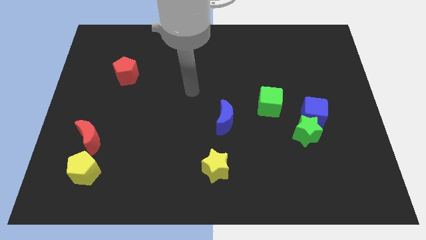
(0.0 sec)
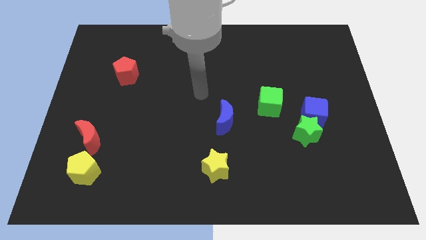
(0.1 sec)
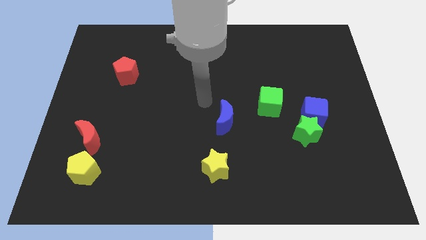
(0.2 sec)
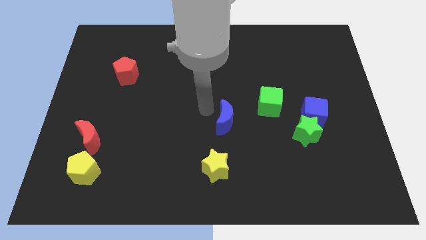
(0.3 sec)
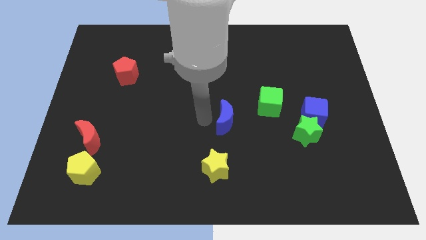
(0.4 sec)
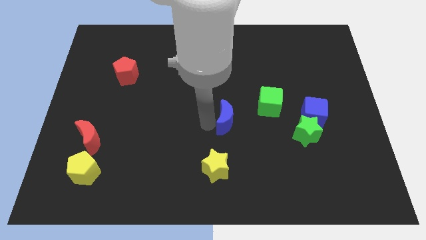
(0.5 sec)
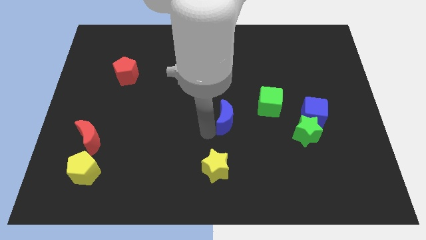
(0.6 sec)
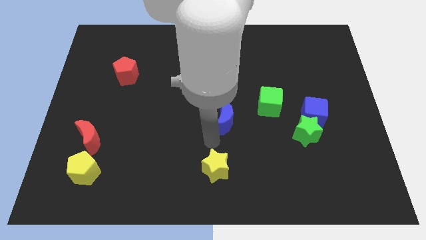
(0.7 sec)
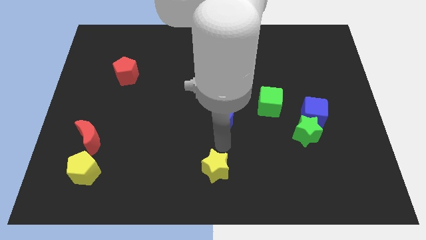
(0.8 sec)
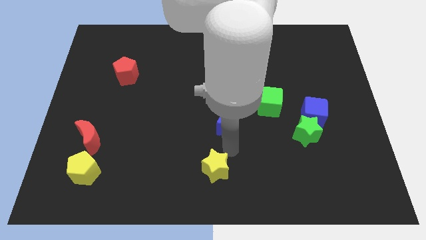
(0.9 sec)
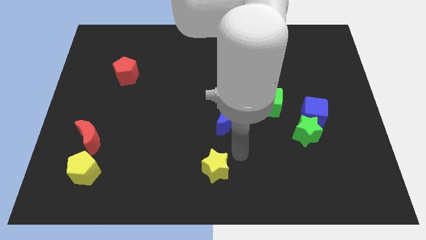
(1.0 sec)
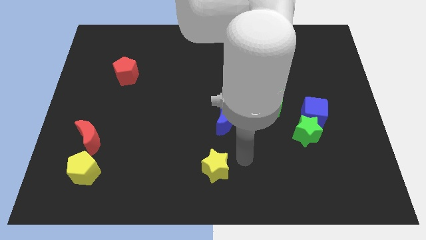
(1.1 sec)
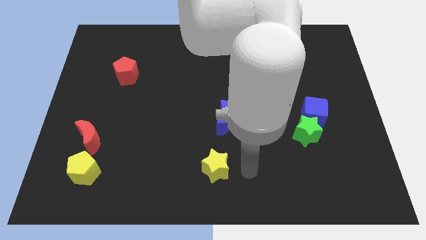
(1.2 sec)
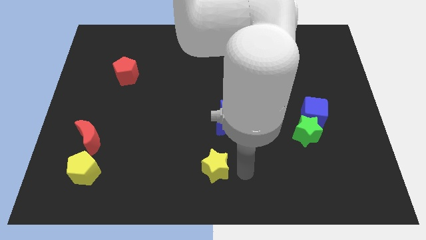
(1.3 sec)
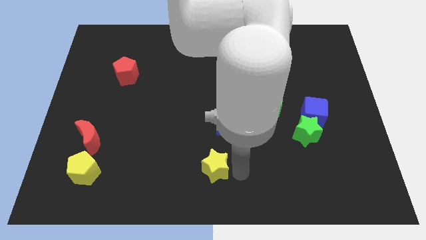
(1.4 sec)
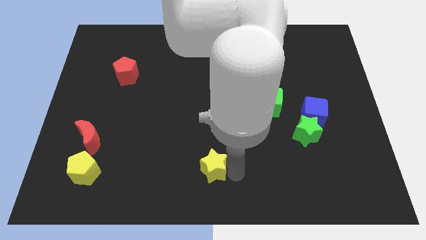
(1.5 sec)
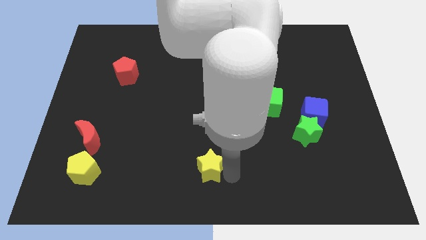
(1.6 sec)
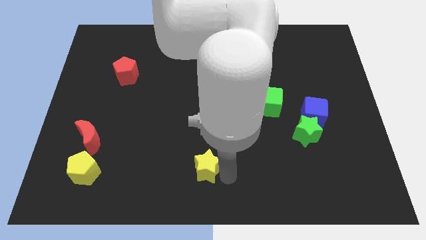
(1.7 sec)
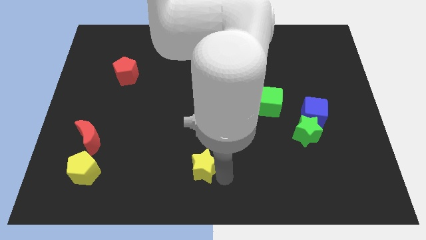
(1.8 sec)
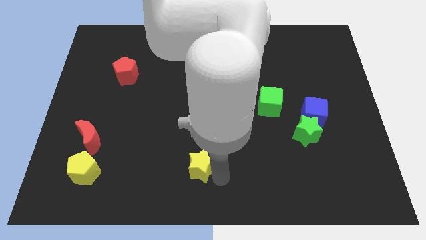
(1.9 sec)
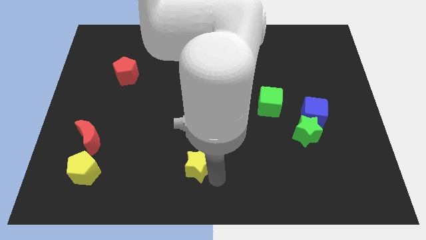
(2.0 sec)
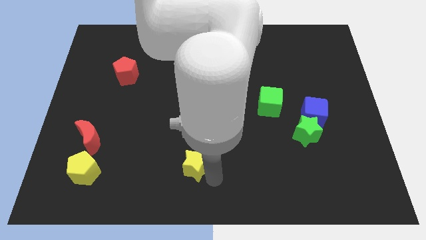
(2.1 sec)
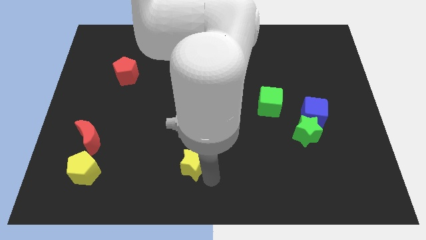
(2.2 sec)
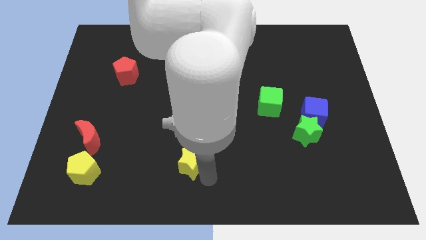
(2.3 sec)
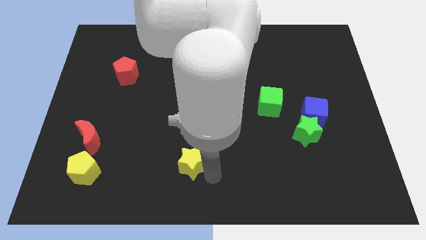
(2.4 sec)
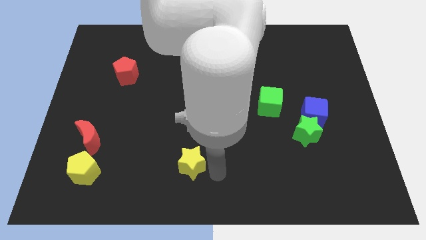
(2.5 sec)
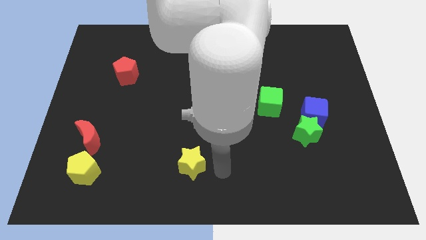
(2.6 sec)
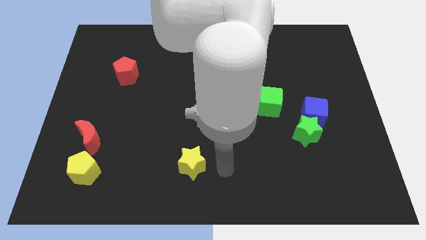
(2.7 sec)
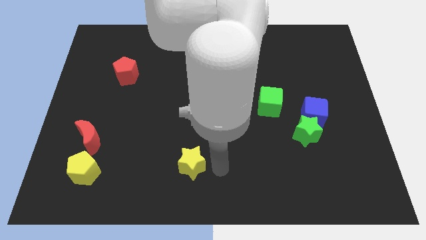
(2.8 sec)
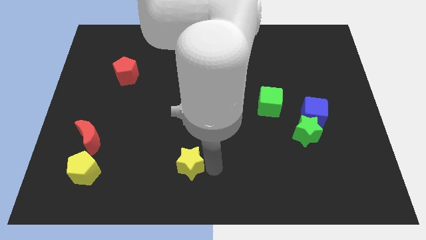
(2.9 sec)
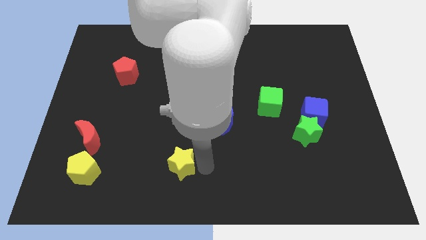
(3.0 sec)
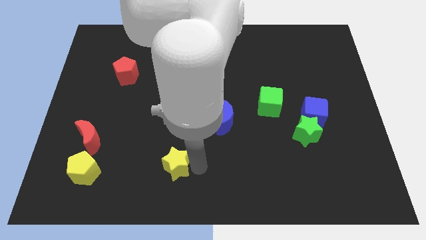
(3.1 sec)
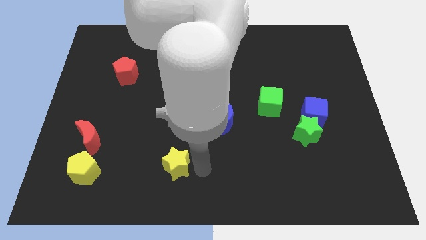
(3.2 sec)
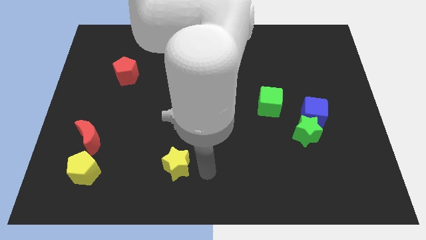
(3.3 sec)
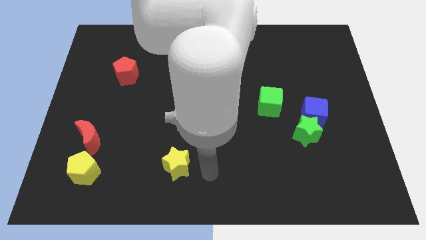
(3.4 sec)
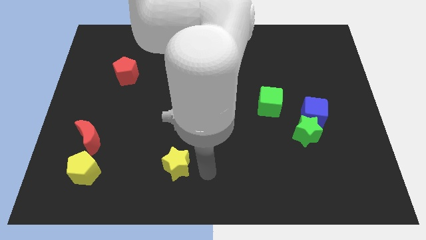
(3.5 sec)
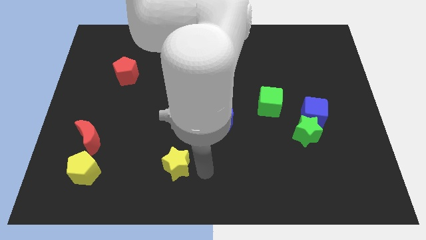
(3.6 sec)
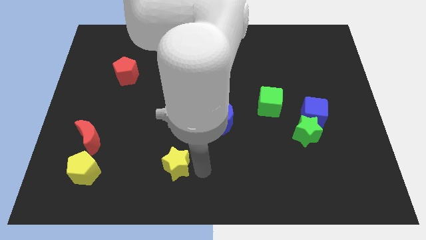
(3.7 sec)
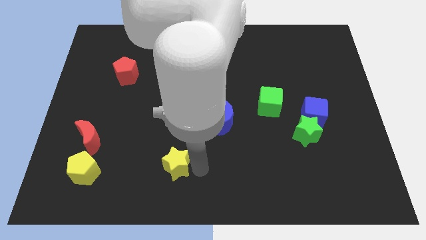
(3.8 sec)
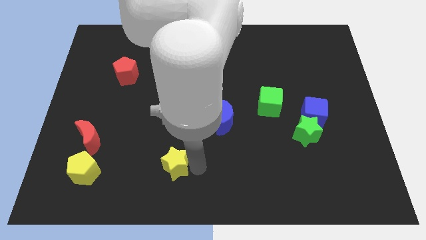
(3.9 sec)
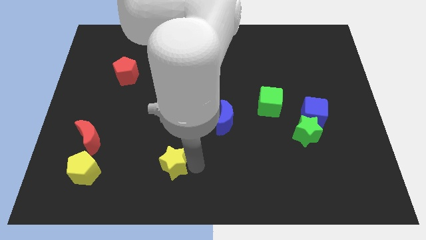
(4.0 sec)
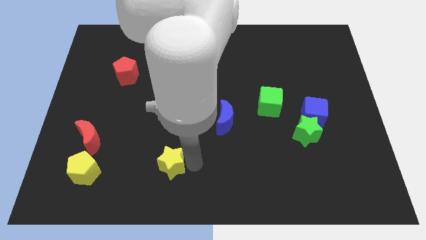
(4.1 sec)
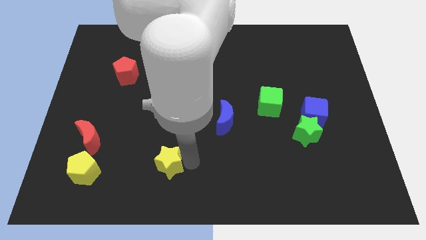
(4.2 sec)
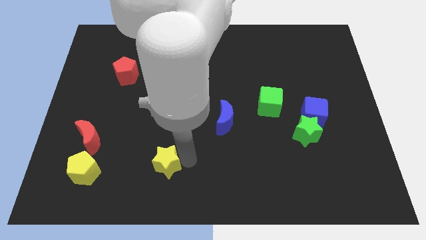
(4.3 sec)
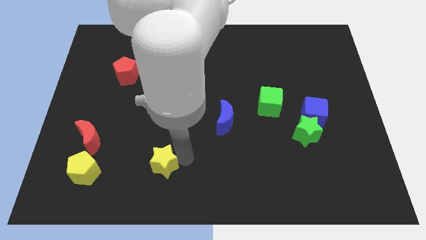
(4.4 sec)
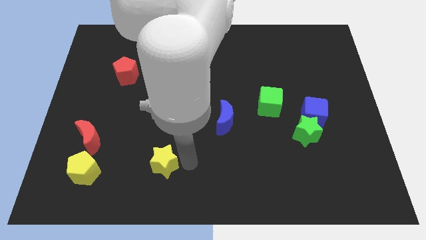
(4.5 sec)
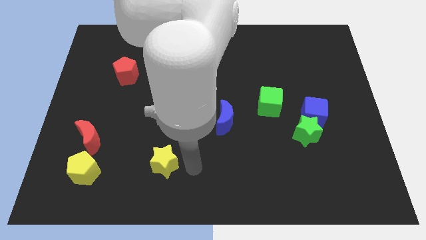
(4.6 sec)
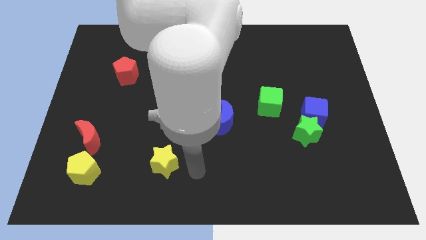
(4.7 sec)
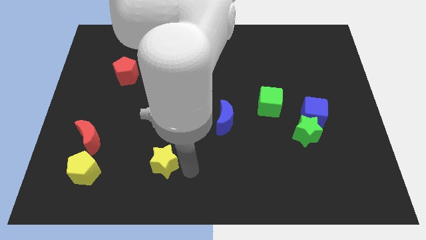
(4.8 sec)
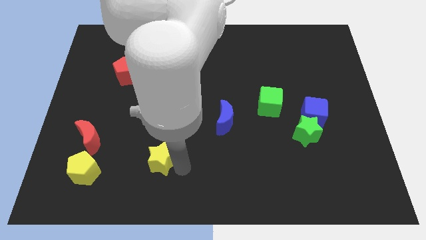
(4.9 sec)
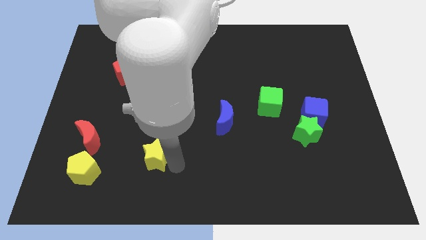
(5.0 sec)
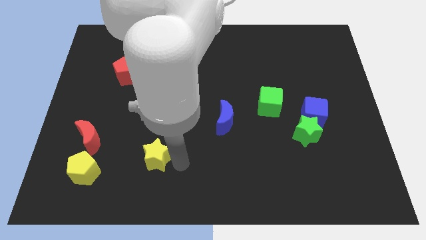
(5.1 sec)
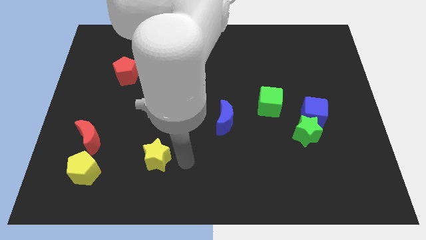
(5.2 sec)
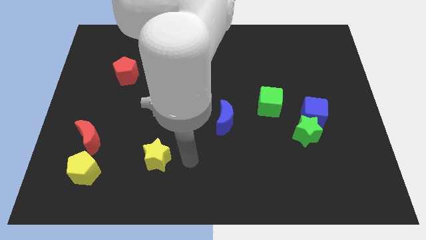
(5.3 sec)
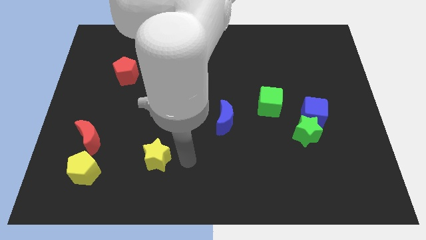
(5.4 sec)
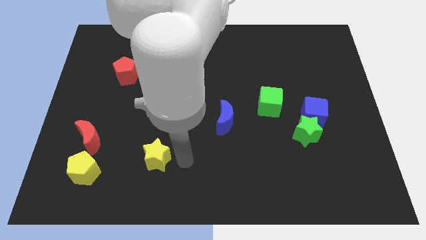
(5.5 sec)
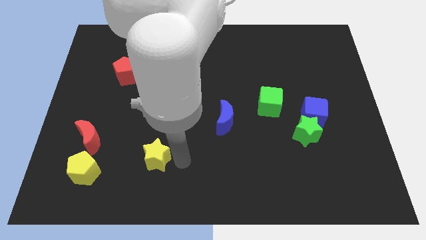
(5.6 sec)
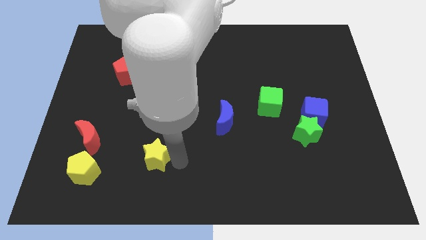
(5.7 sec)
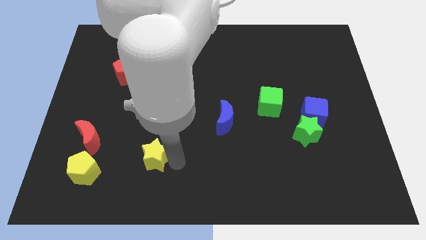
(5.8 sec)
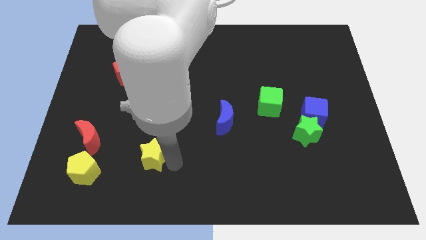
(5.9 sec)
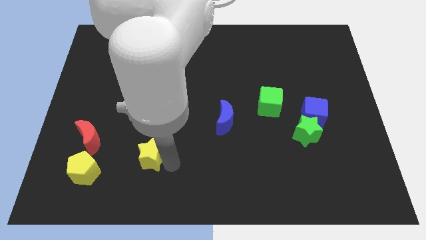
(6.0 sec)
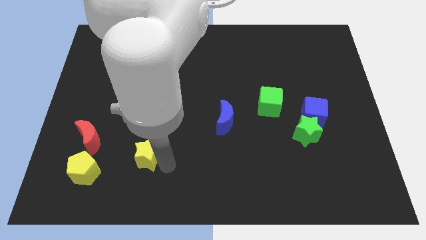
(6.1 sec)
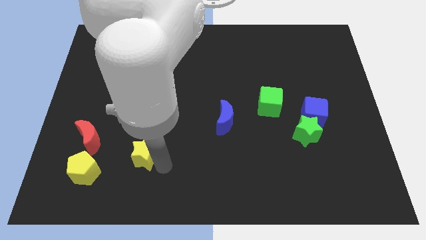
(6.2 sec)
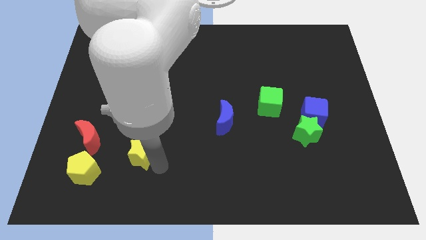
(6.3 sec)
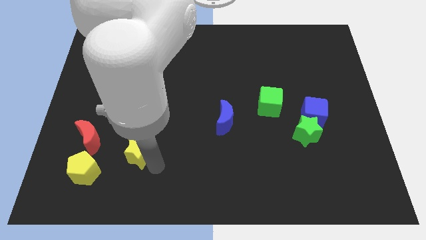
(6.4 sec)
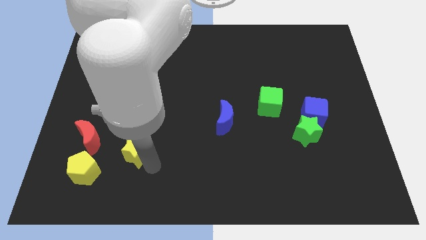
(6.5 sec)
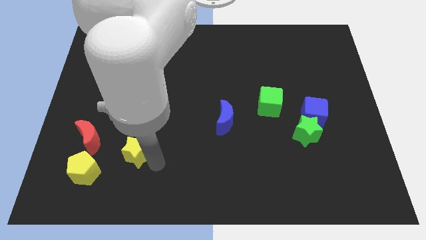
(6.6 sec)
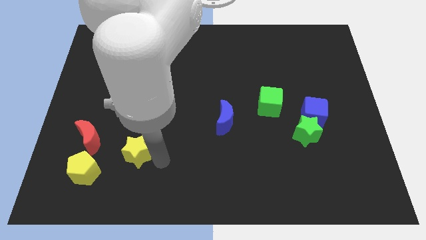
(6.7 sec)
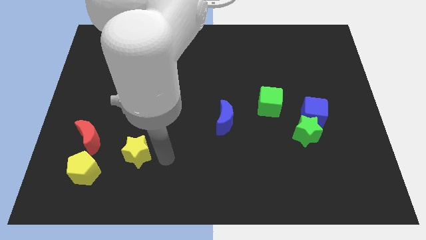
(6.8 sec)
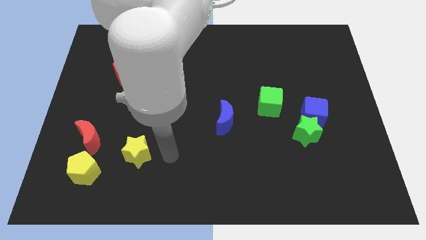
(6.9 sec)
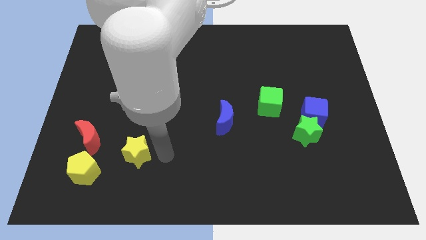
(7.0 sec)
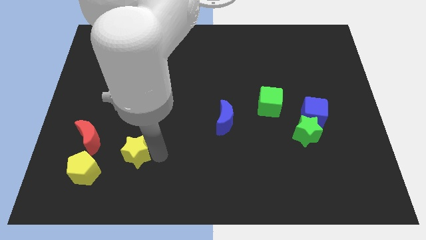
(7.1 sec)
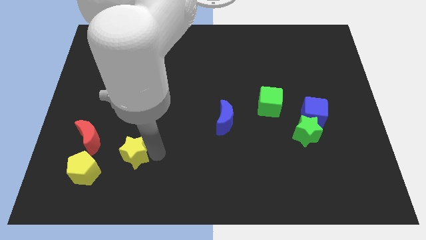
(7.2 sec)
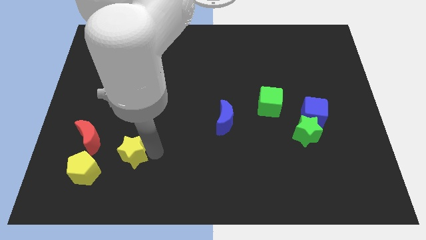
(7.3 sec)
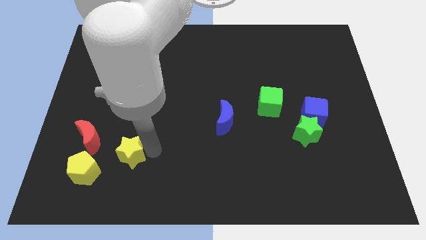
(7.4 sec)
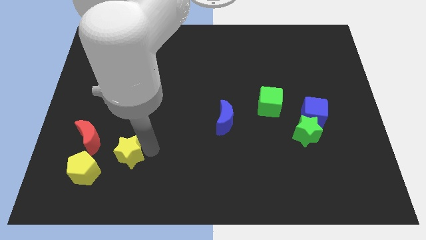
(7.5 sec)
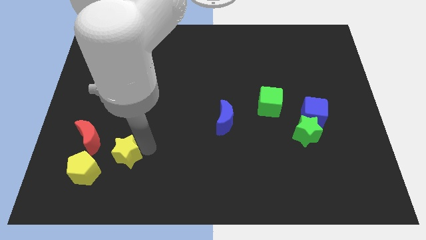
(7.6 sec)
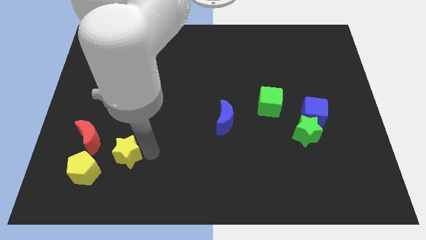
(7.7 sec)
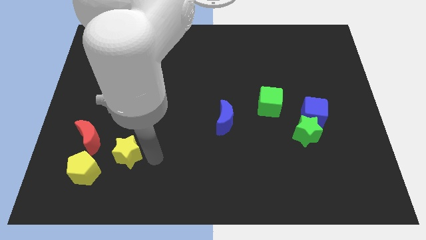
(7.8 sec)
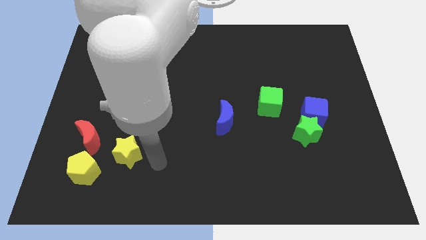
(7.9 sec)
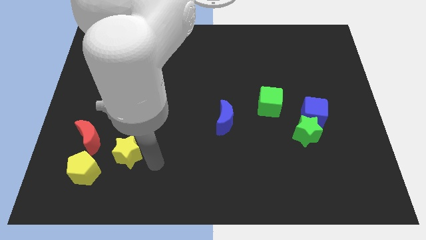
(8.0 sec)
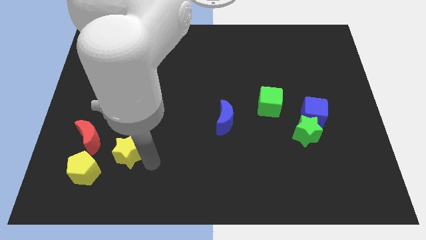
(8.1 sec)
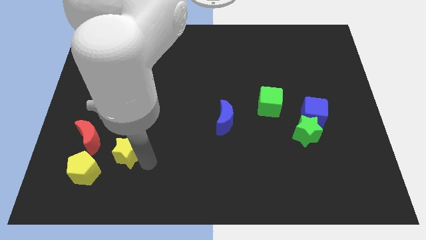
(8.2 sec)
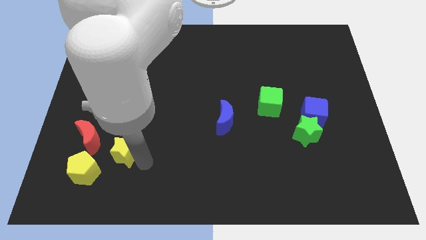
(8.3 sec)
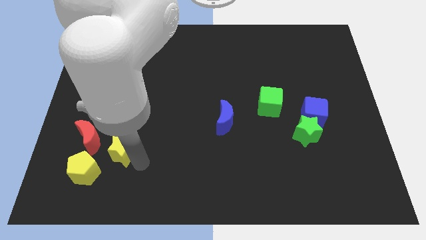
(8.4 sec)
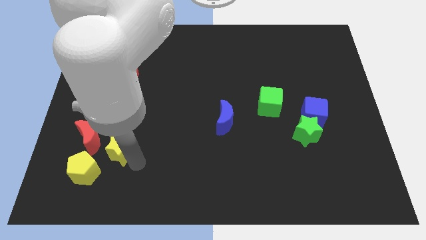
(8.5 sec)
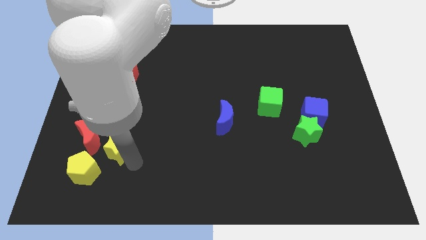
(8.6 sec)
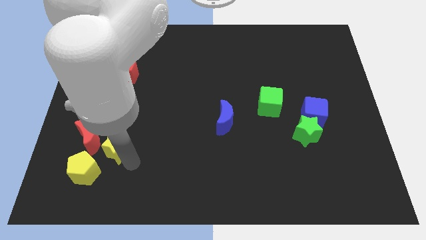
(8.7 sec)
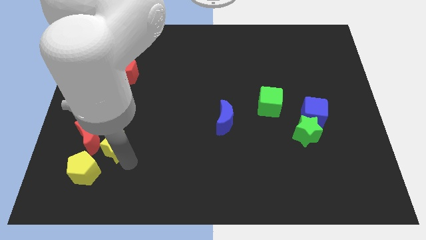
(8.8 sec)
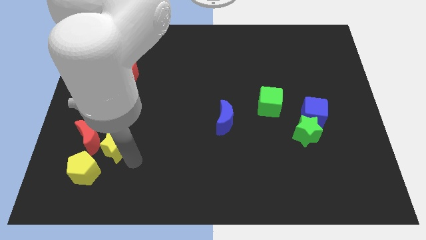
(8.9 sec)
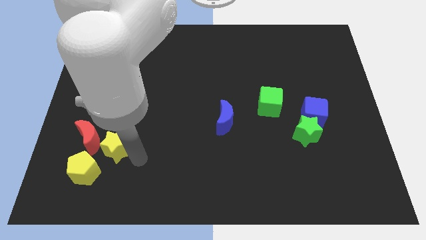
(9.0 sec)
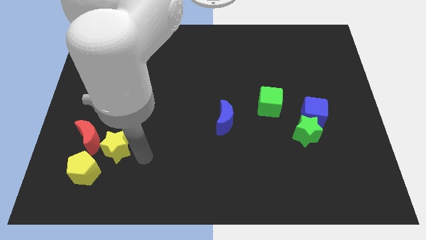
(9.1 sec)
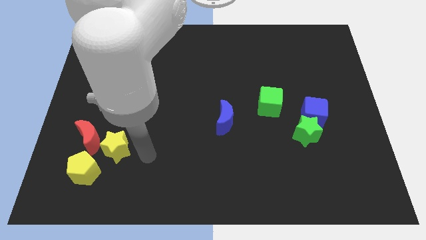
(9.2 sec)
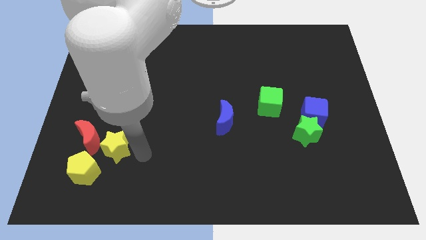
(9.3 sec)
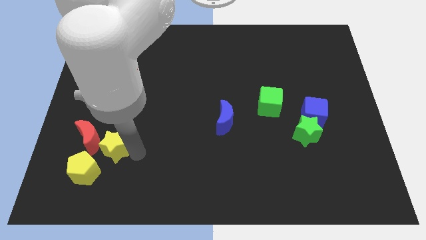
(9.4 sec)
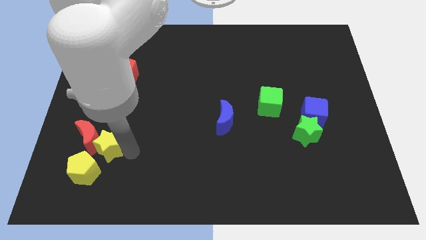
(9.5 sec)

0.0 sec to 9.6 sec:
move the yellow star to the red moon
